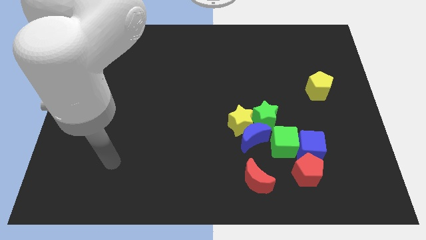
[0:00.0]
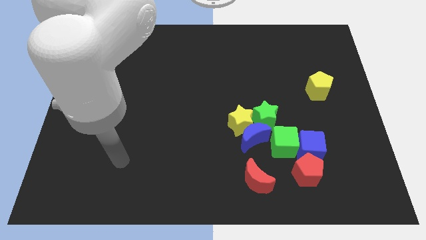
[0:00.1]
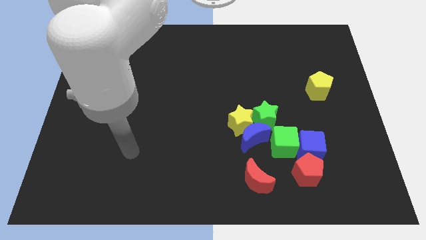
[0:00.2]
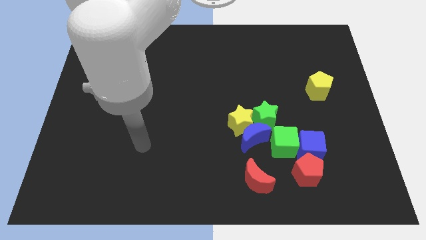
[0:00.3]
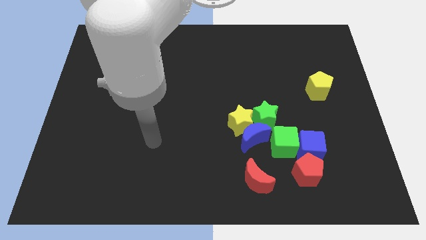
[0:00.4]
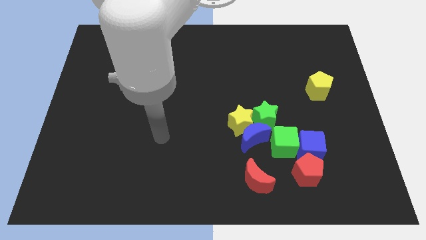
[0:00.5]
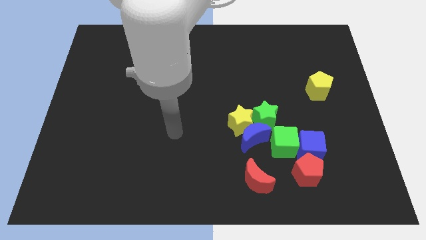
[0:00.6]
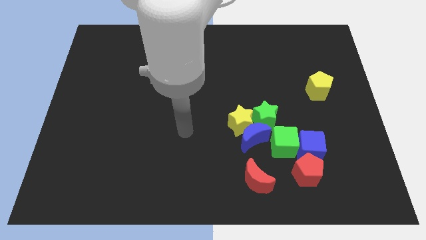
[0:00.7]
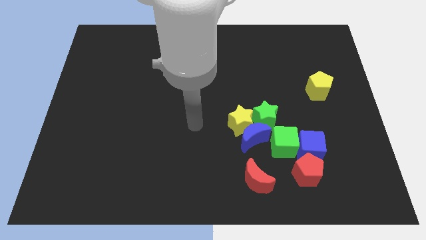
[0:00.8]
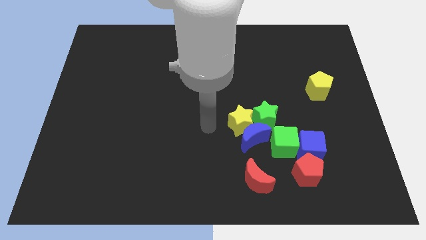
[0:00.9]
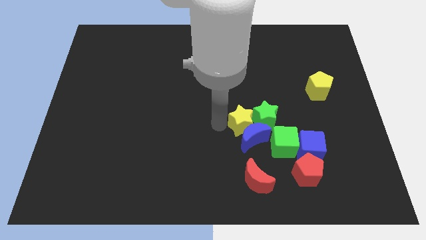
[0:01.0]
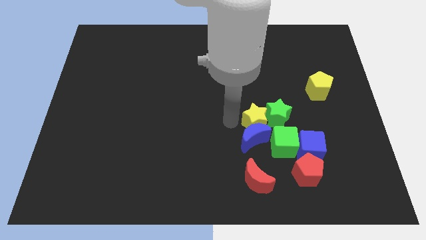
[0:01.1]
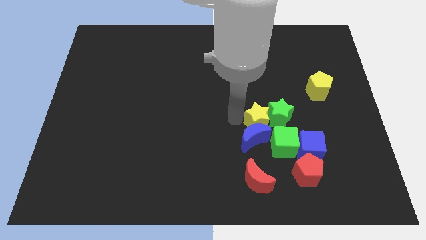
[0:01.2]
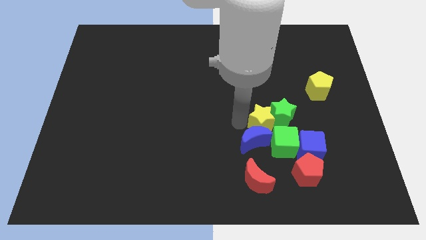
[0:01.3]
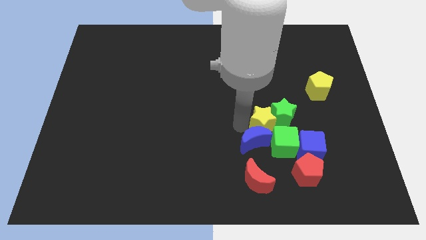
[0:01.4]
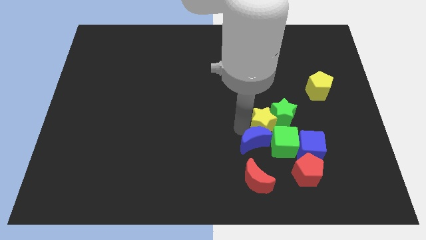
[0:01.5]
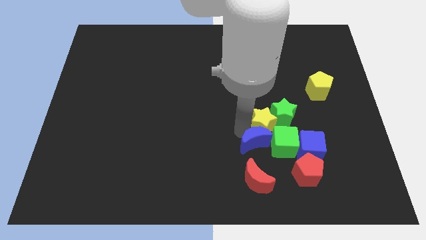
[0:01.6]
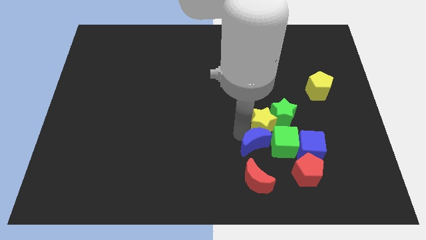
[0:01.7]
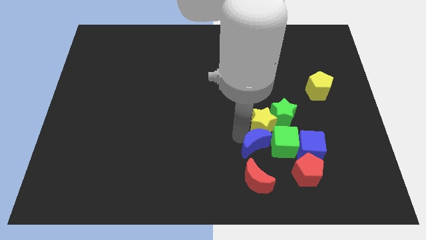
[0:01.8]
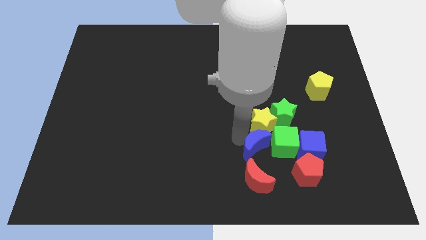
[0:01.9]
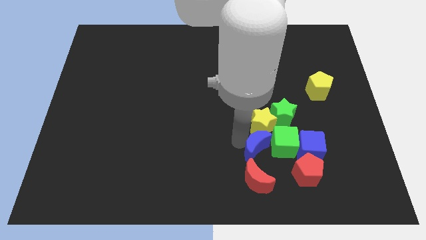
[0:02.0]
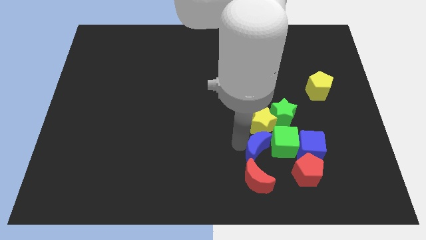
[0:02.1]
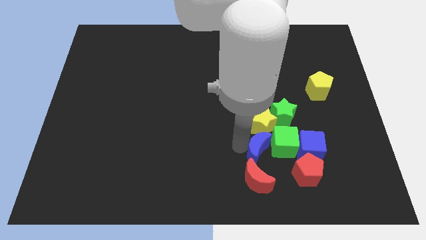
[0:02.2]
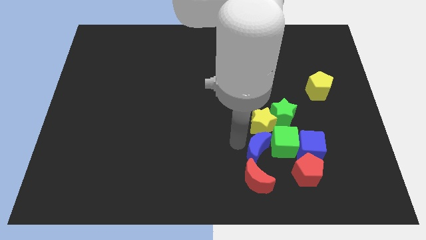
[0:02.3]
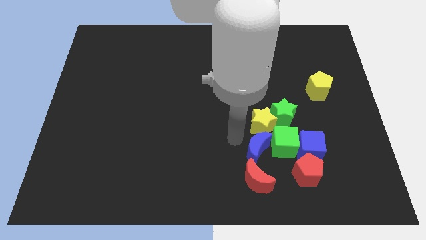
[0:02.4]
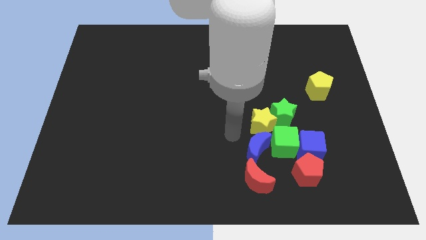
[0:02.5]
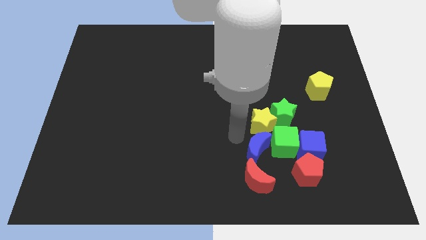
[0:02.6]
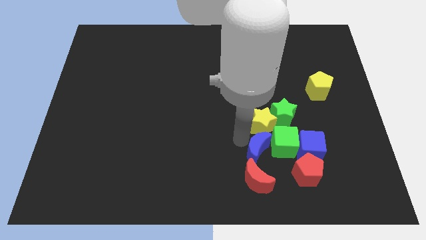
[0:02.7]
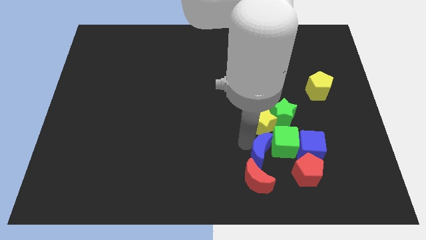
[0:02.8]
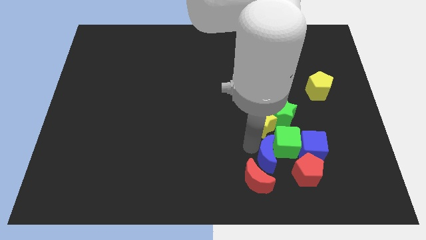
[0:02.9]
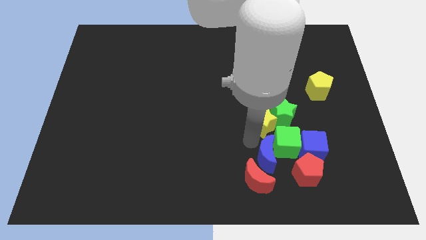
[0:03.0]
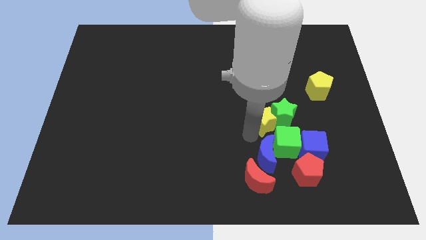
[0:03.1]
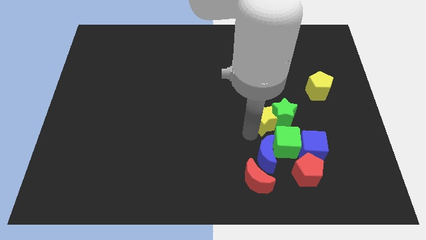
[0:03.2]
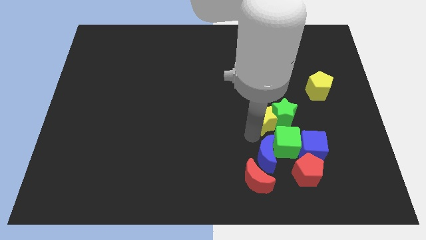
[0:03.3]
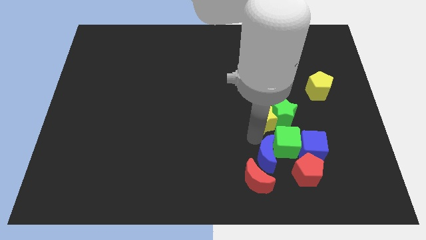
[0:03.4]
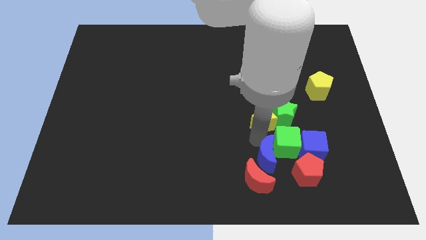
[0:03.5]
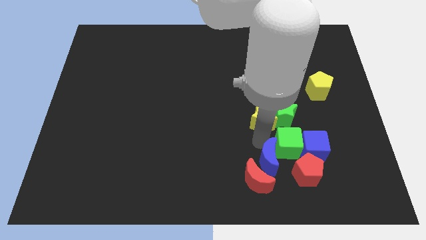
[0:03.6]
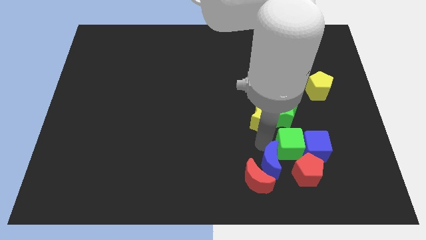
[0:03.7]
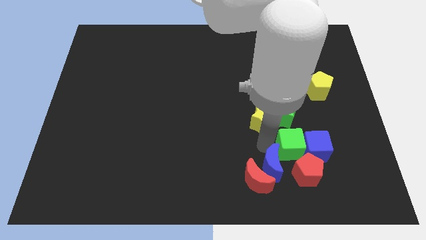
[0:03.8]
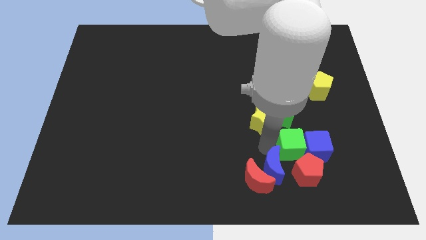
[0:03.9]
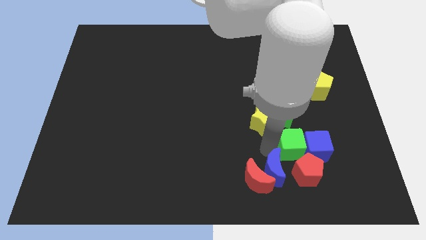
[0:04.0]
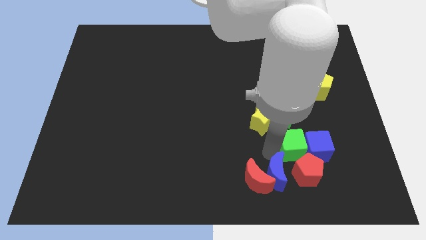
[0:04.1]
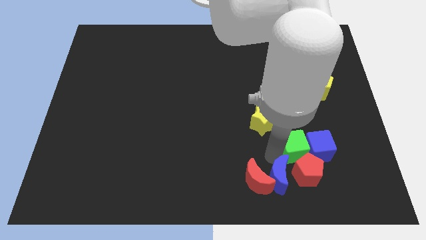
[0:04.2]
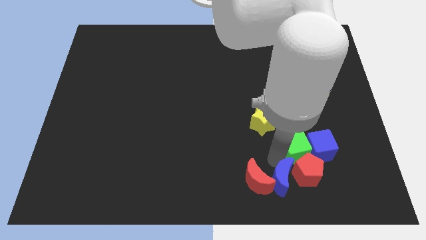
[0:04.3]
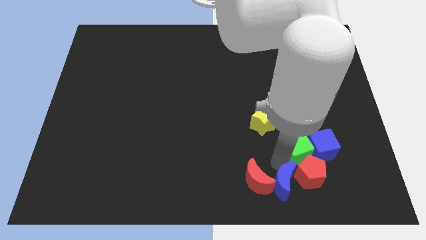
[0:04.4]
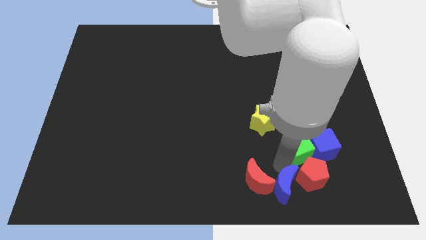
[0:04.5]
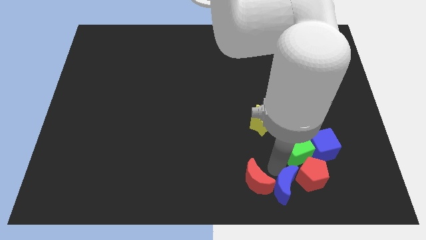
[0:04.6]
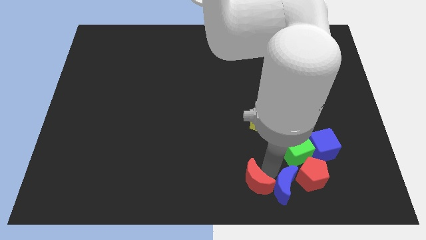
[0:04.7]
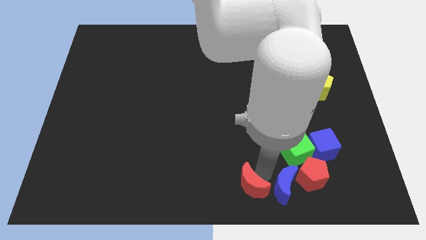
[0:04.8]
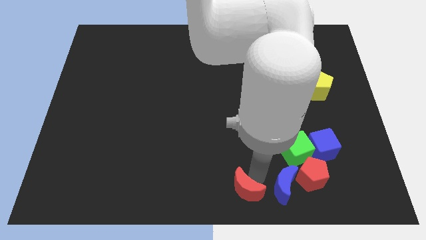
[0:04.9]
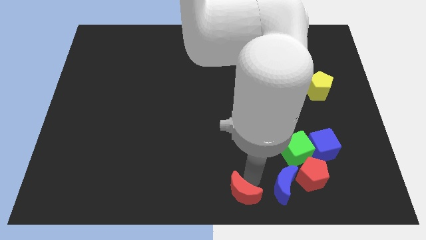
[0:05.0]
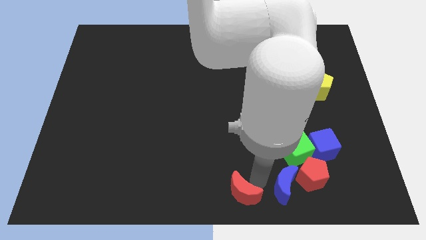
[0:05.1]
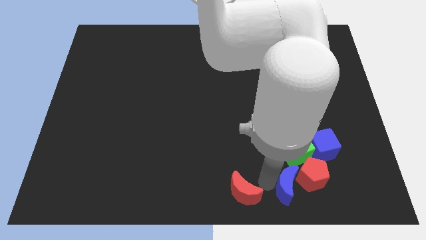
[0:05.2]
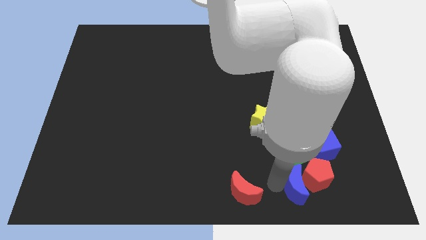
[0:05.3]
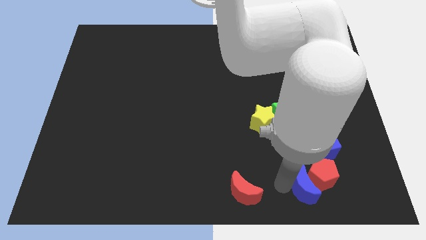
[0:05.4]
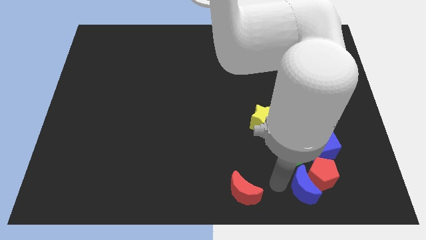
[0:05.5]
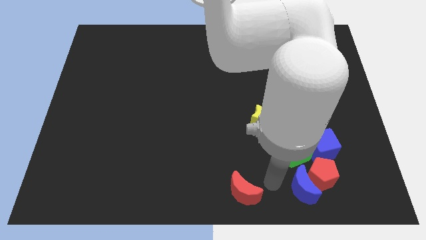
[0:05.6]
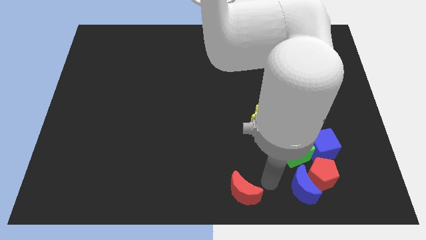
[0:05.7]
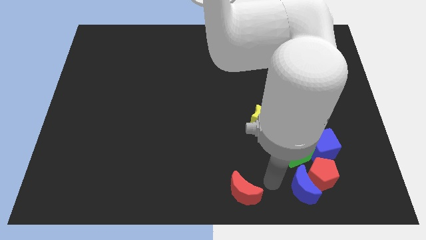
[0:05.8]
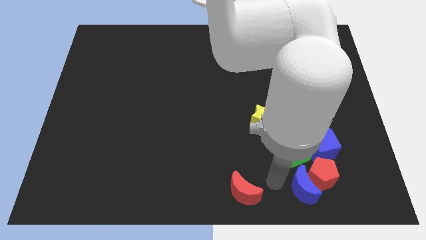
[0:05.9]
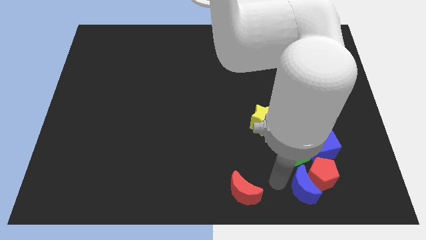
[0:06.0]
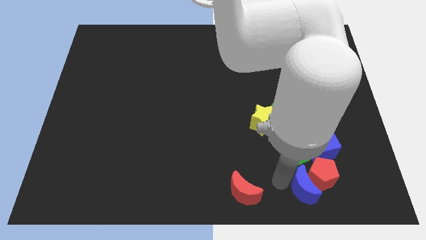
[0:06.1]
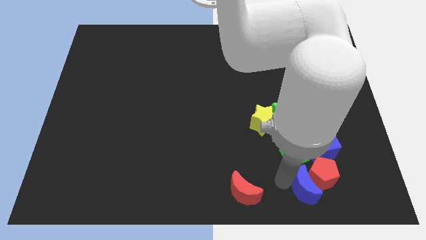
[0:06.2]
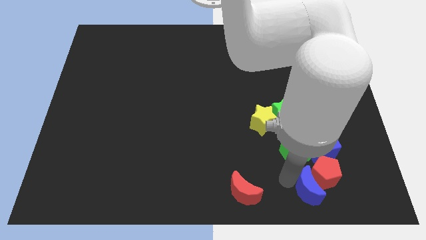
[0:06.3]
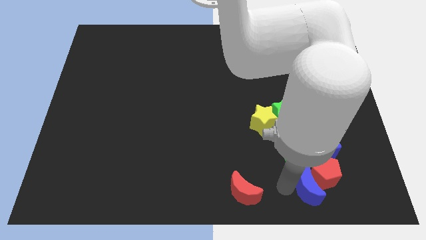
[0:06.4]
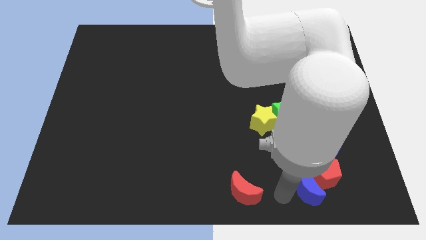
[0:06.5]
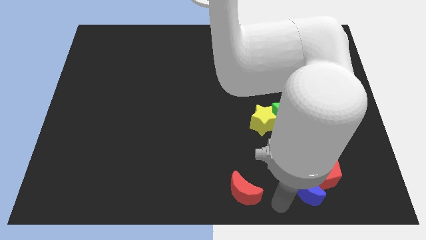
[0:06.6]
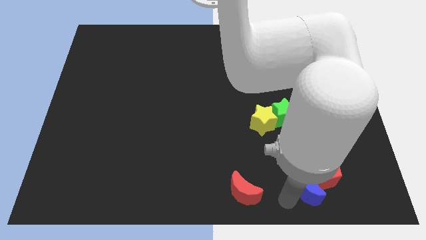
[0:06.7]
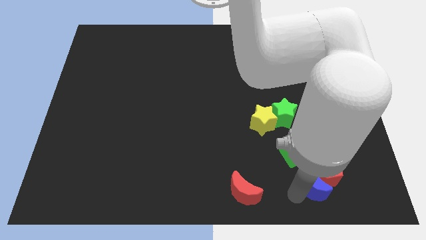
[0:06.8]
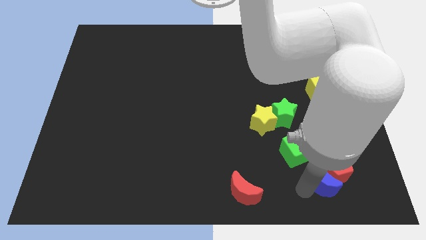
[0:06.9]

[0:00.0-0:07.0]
slide the blue moon a little bit right

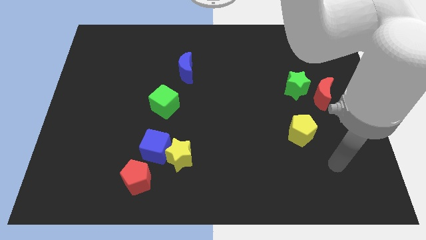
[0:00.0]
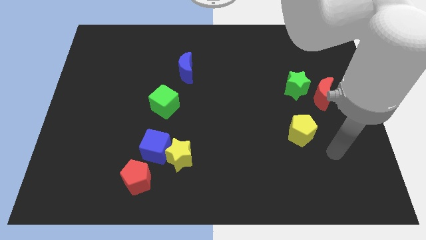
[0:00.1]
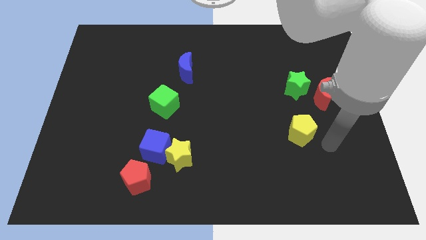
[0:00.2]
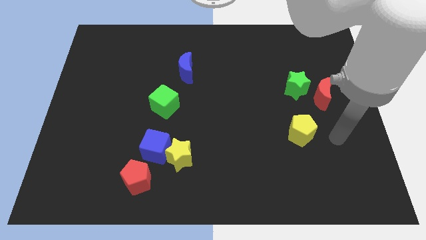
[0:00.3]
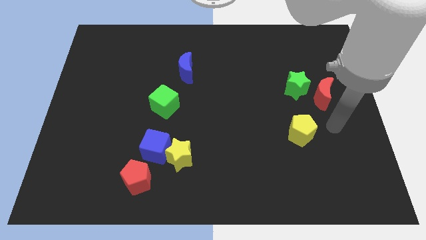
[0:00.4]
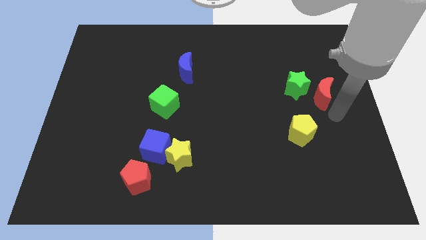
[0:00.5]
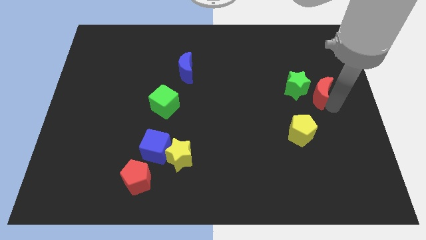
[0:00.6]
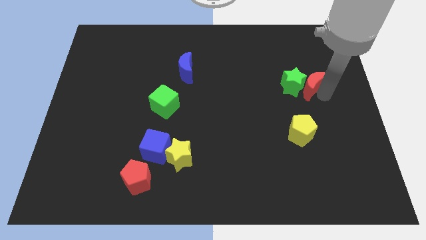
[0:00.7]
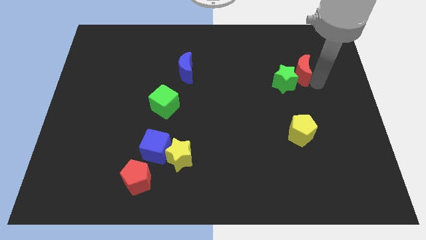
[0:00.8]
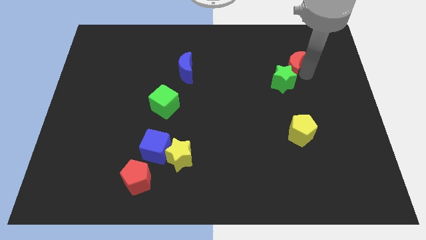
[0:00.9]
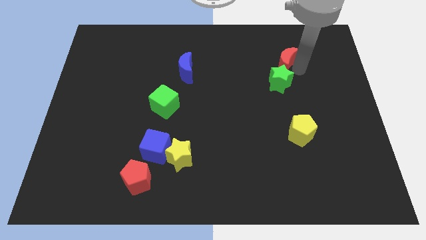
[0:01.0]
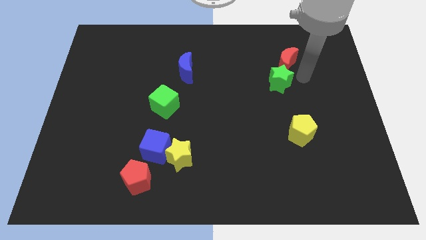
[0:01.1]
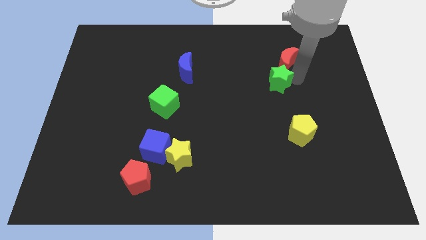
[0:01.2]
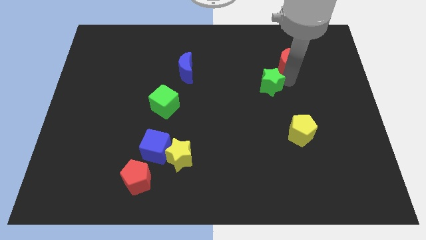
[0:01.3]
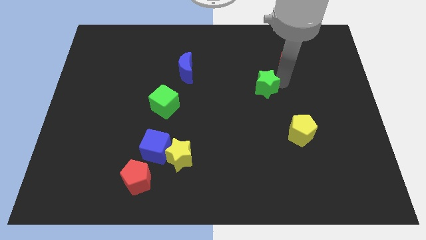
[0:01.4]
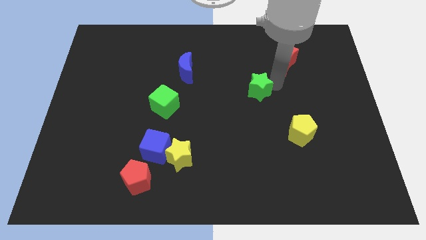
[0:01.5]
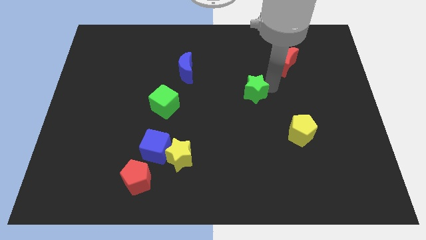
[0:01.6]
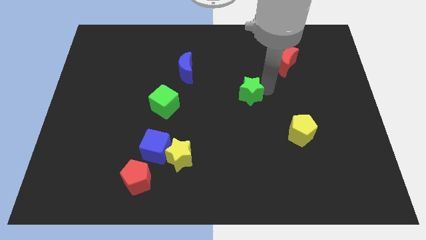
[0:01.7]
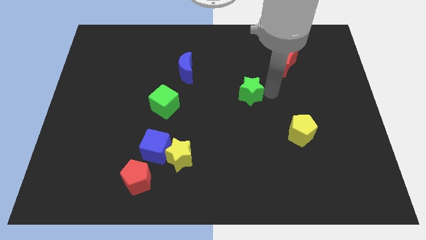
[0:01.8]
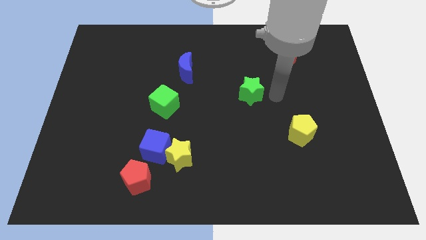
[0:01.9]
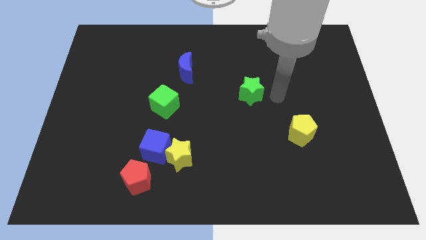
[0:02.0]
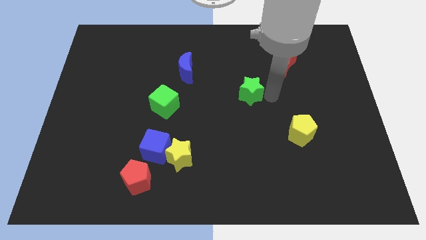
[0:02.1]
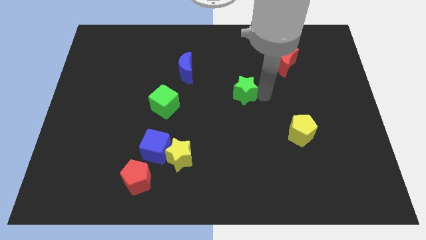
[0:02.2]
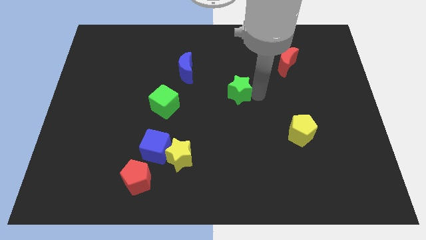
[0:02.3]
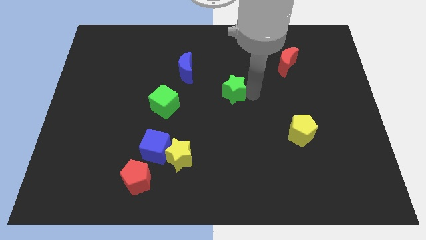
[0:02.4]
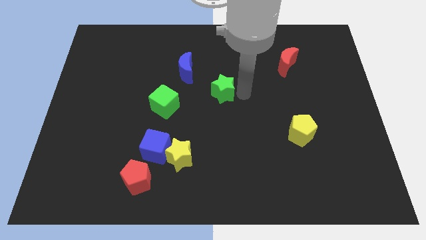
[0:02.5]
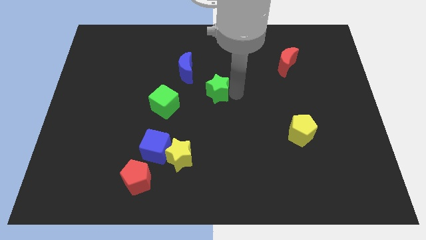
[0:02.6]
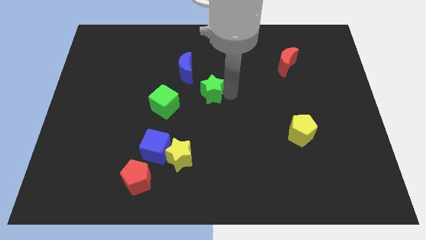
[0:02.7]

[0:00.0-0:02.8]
move the green star to the left
